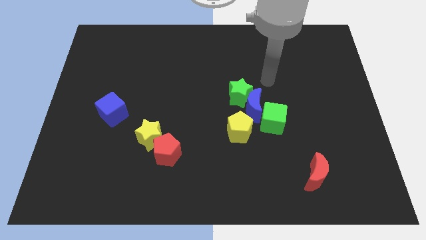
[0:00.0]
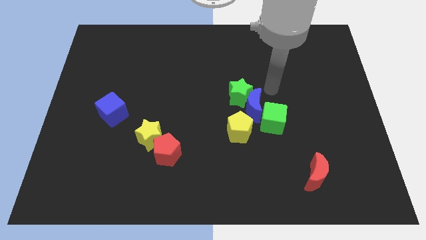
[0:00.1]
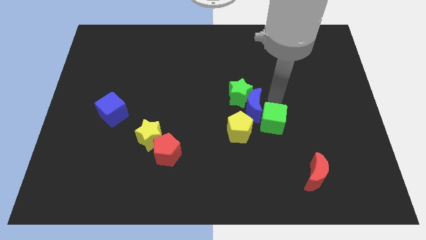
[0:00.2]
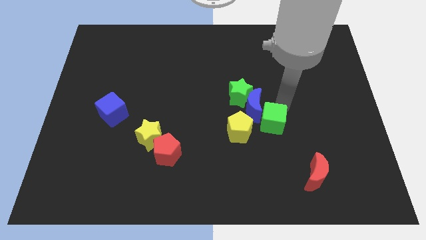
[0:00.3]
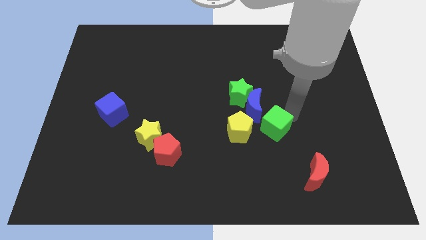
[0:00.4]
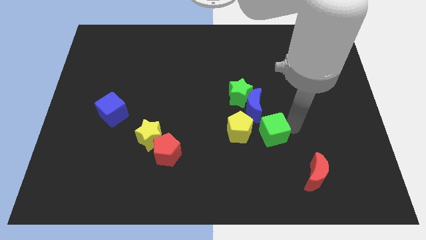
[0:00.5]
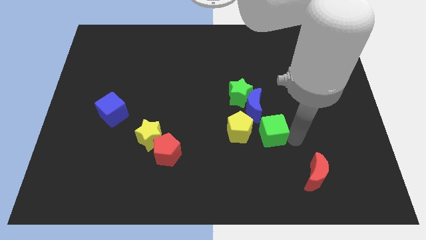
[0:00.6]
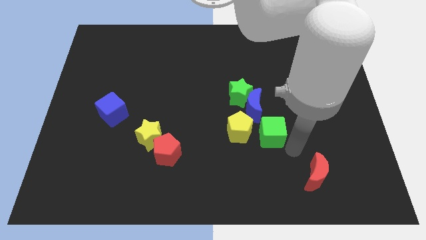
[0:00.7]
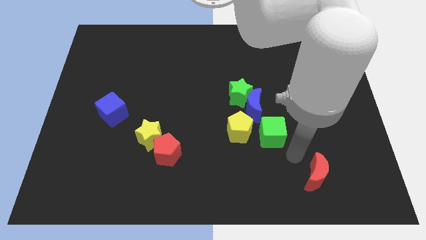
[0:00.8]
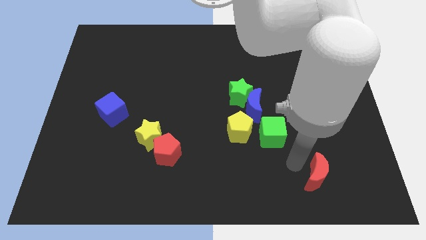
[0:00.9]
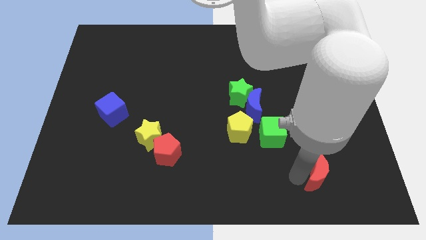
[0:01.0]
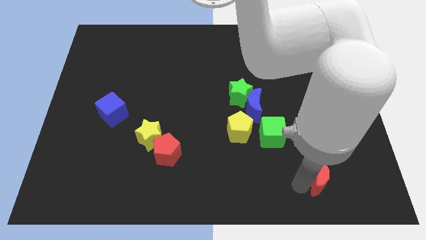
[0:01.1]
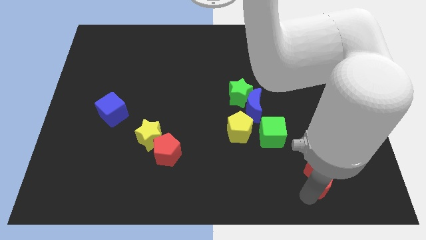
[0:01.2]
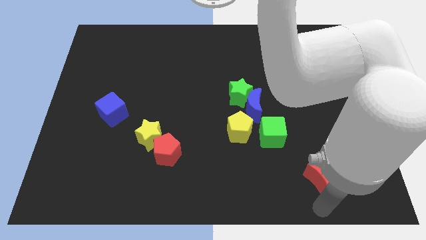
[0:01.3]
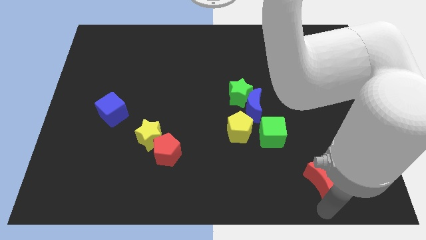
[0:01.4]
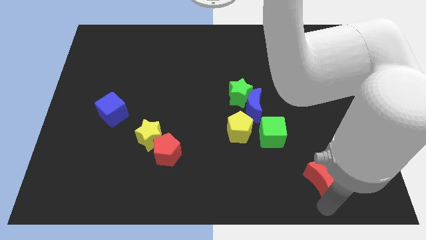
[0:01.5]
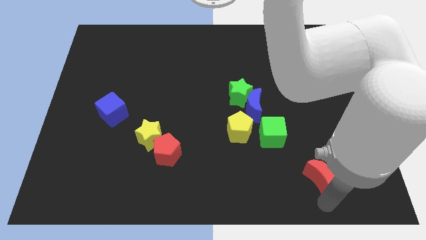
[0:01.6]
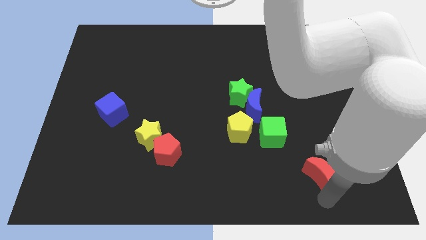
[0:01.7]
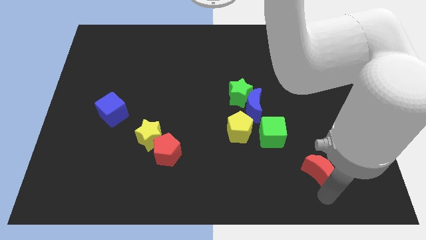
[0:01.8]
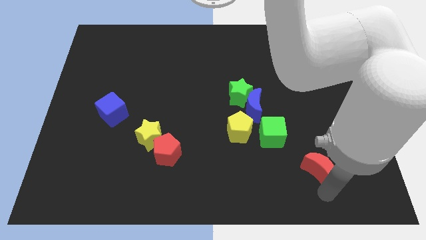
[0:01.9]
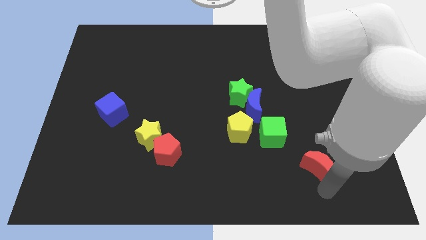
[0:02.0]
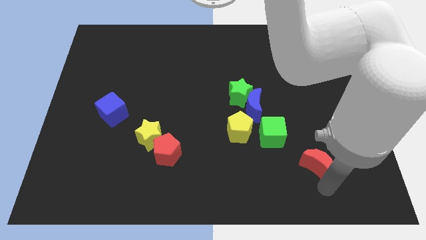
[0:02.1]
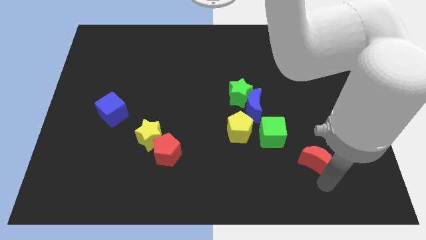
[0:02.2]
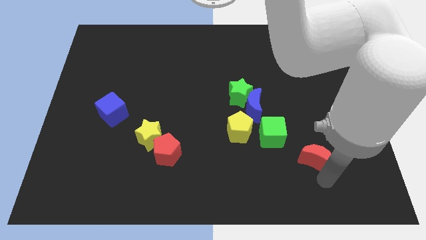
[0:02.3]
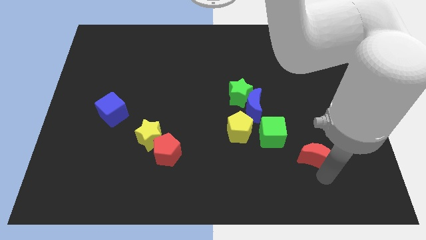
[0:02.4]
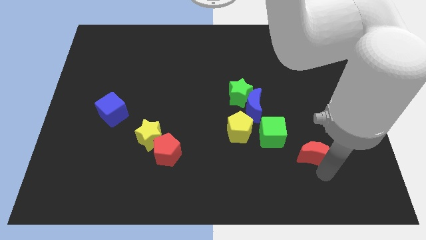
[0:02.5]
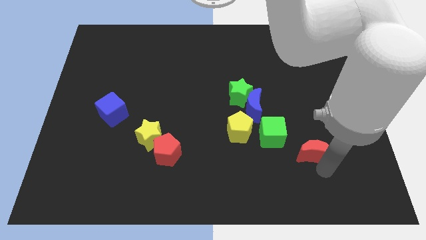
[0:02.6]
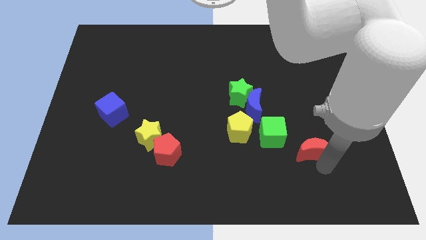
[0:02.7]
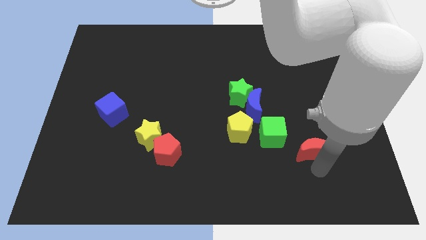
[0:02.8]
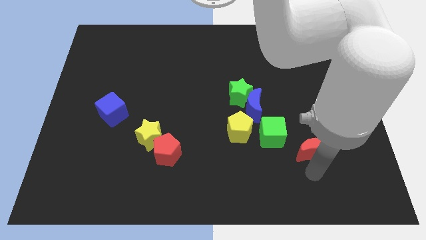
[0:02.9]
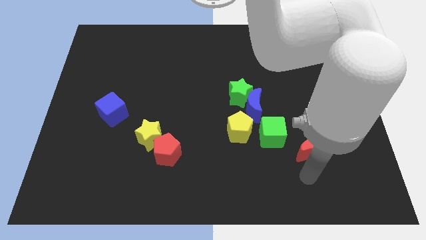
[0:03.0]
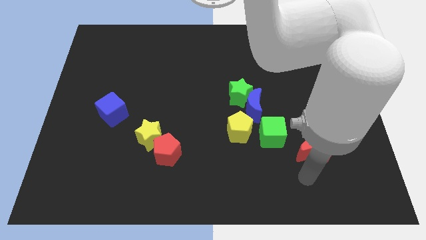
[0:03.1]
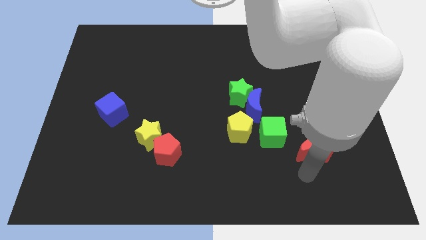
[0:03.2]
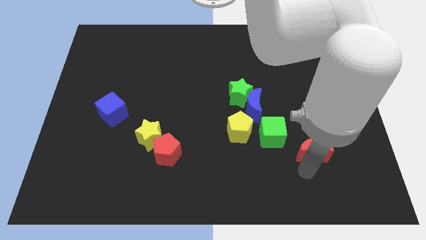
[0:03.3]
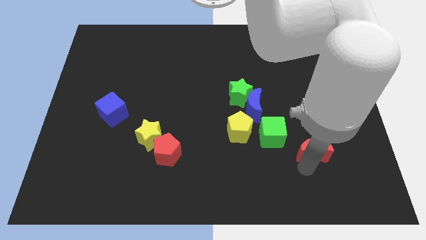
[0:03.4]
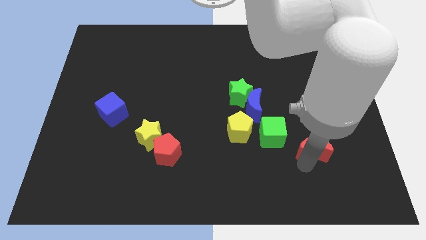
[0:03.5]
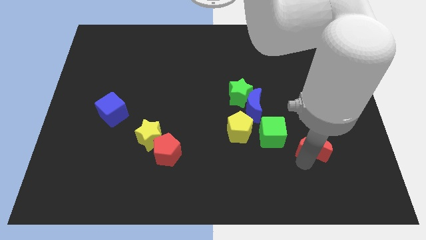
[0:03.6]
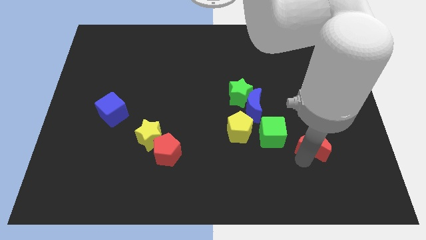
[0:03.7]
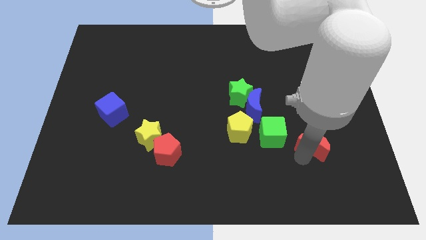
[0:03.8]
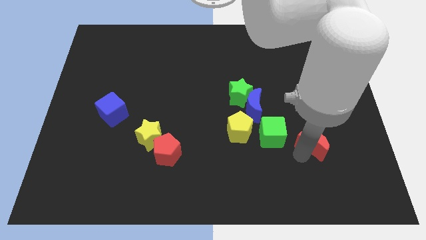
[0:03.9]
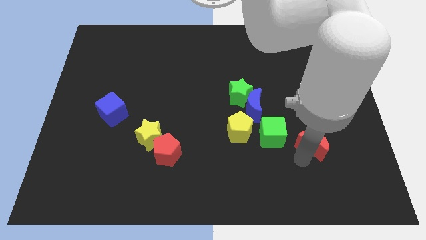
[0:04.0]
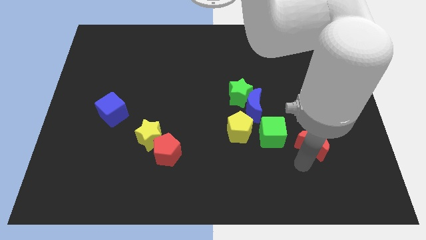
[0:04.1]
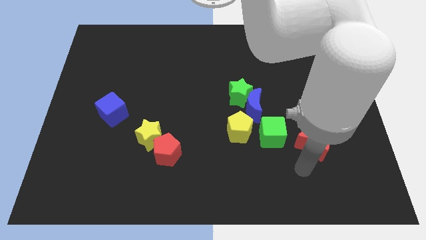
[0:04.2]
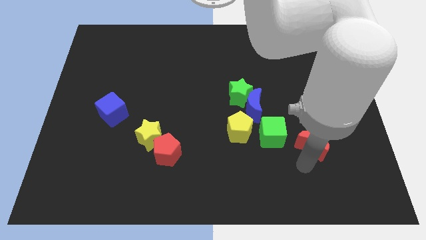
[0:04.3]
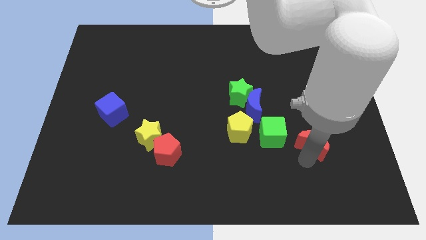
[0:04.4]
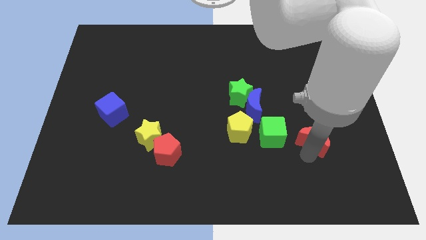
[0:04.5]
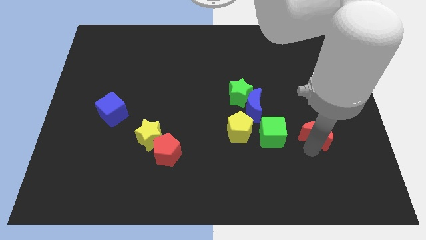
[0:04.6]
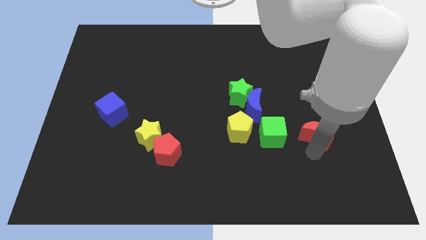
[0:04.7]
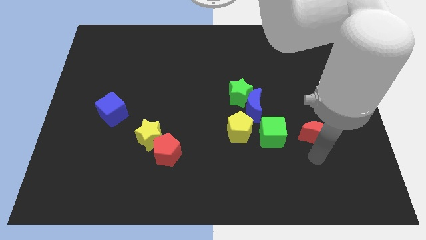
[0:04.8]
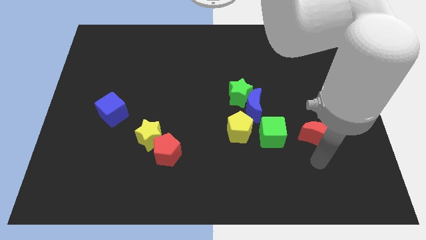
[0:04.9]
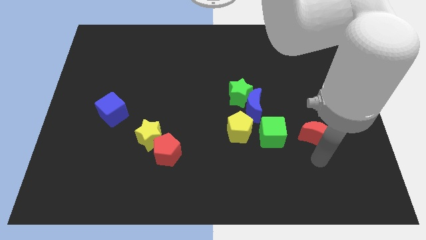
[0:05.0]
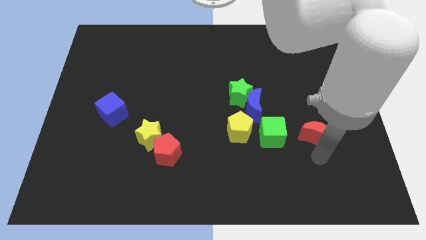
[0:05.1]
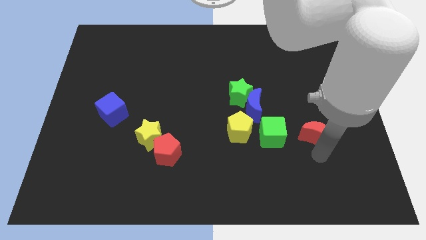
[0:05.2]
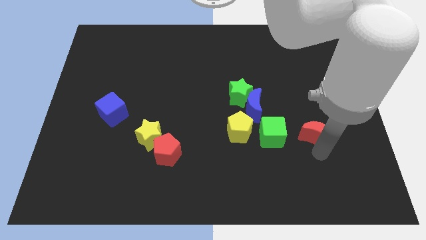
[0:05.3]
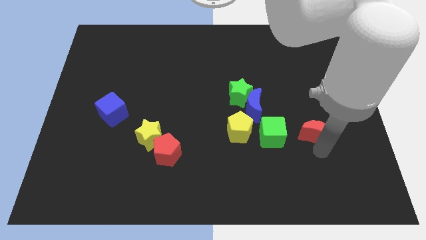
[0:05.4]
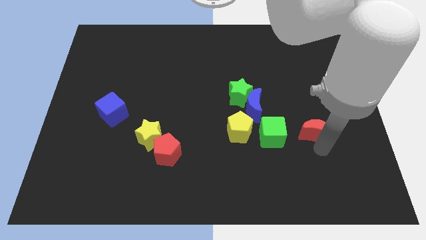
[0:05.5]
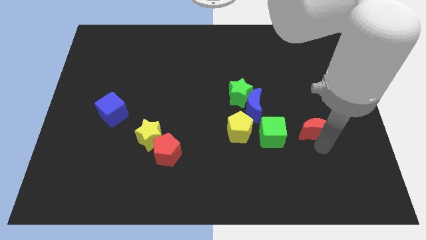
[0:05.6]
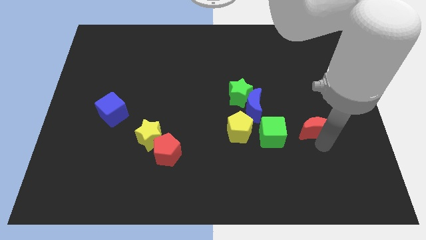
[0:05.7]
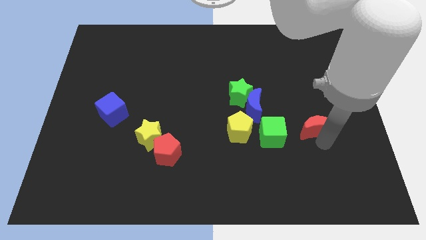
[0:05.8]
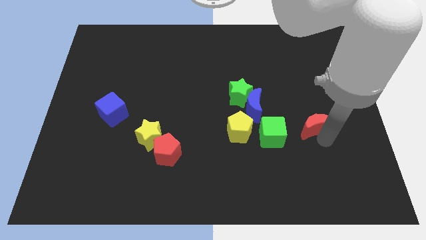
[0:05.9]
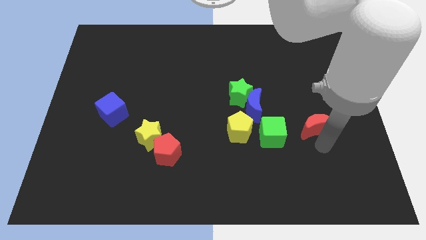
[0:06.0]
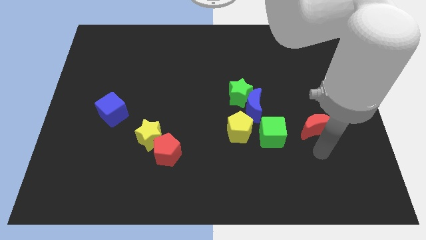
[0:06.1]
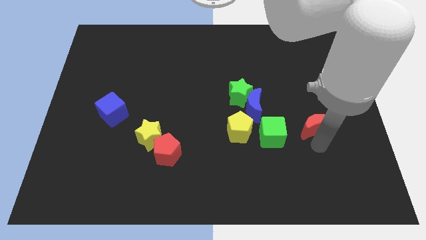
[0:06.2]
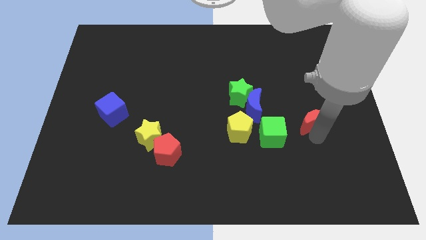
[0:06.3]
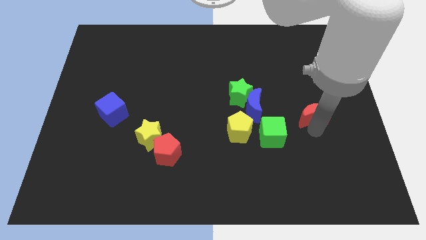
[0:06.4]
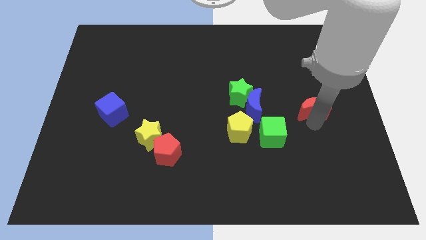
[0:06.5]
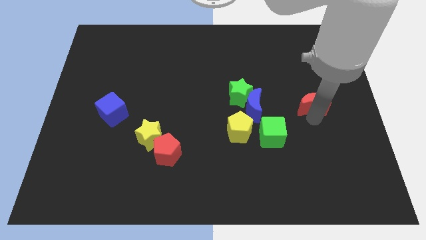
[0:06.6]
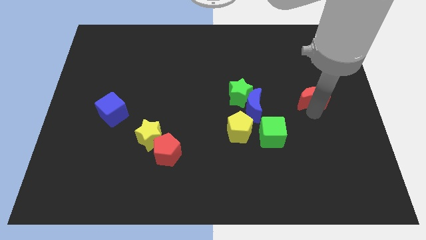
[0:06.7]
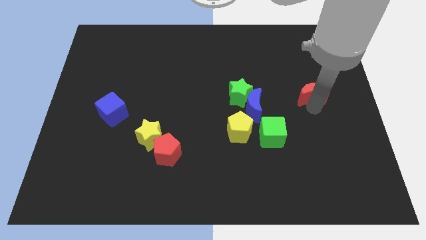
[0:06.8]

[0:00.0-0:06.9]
move the red moon upwards

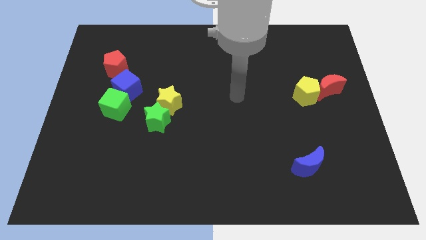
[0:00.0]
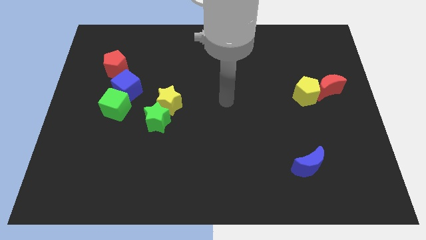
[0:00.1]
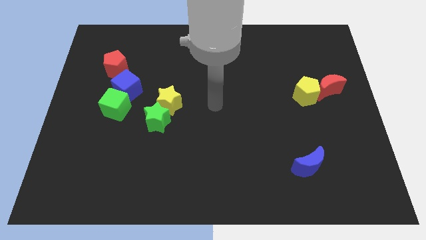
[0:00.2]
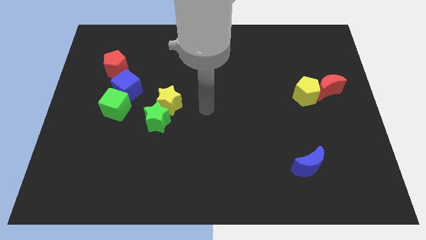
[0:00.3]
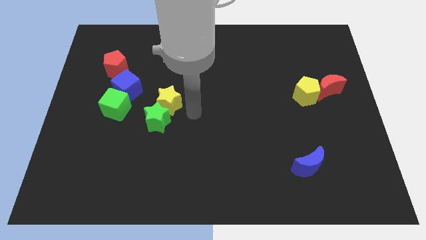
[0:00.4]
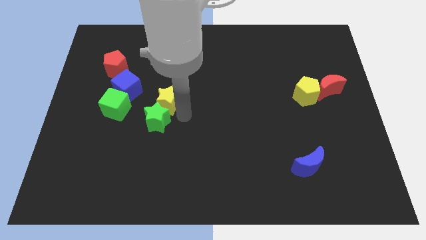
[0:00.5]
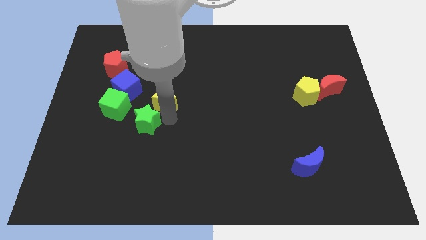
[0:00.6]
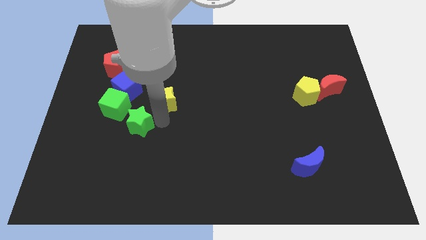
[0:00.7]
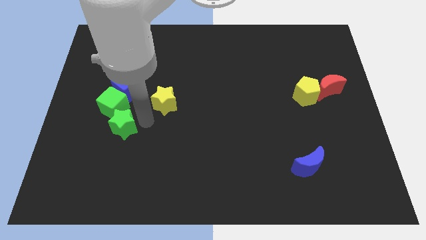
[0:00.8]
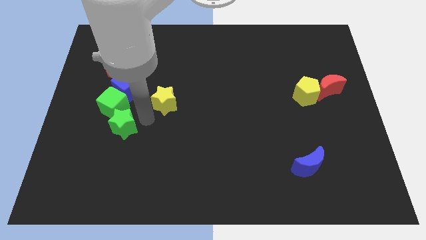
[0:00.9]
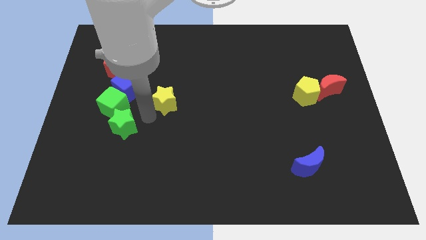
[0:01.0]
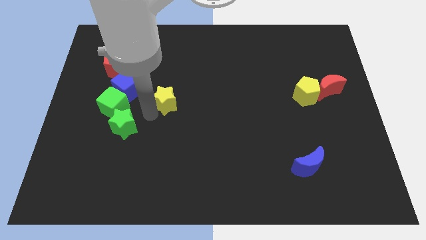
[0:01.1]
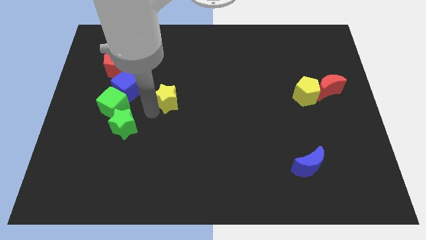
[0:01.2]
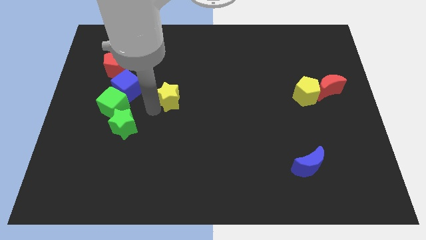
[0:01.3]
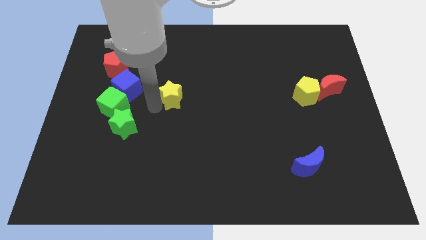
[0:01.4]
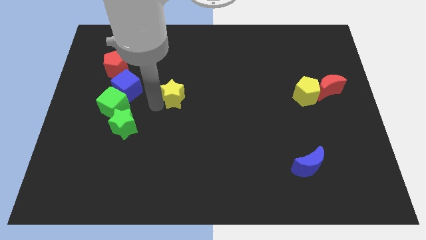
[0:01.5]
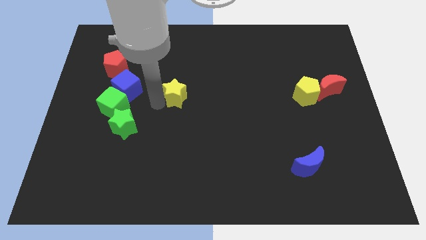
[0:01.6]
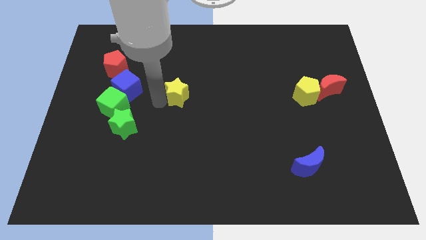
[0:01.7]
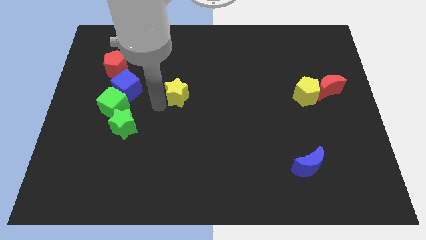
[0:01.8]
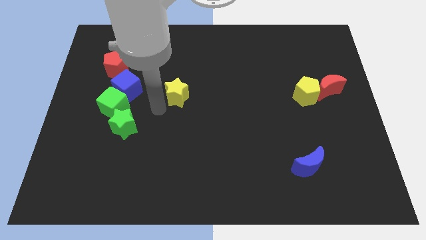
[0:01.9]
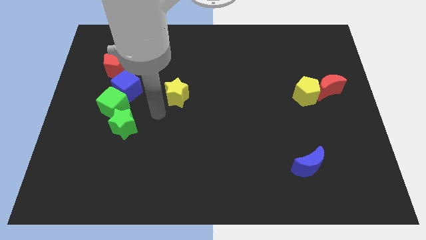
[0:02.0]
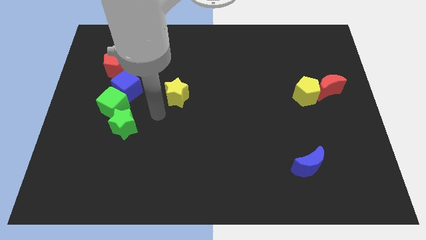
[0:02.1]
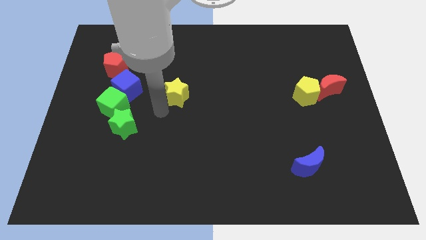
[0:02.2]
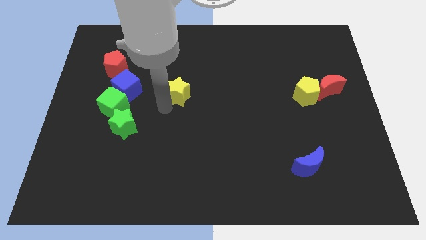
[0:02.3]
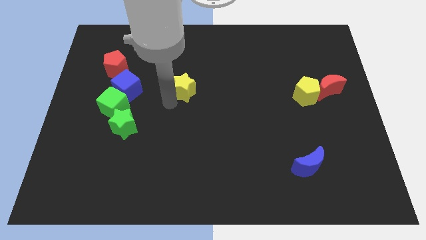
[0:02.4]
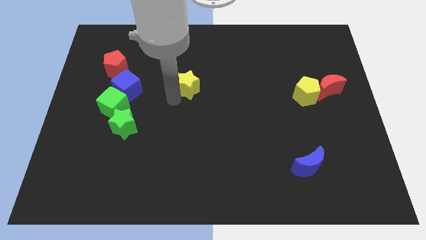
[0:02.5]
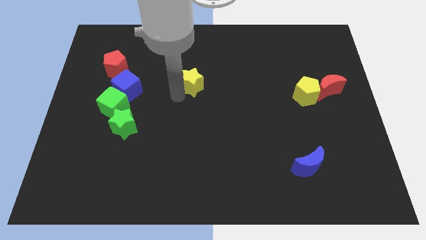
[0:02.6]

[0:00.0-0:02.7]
push the yellow star upwards and then to the right a little bit
